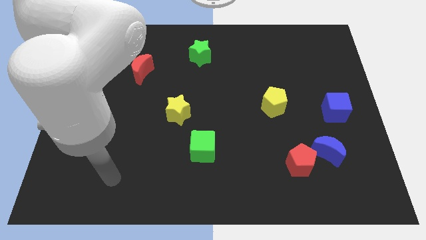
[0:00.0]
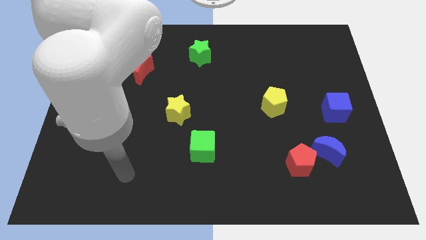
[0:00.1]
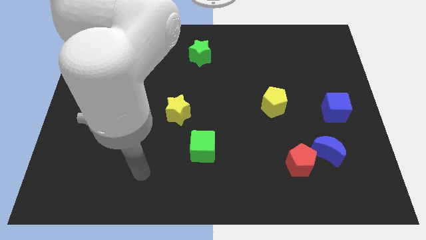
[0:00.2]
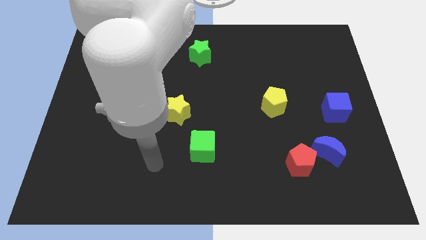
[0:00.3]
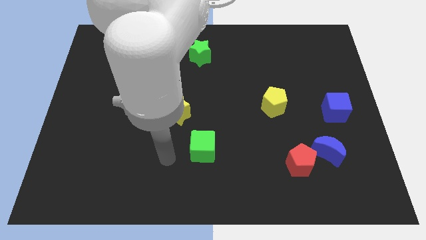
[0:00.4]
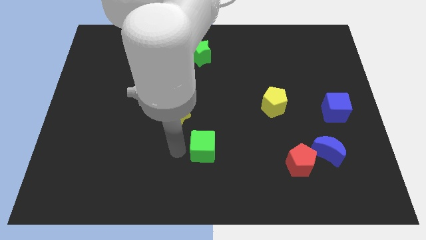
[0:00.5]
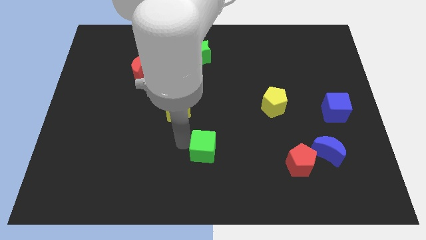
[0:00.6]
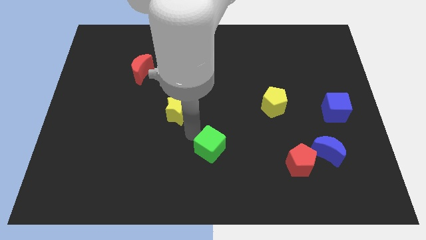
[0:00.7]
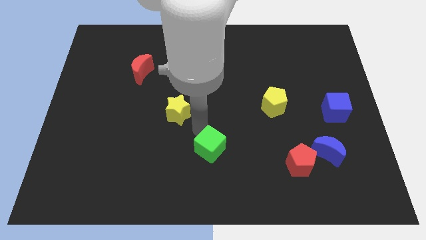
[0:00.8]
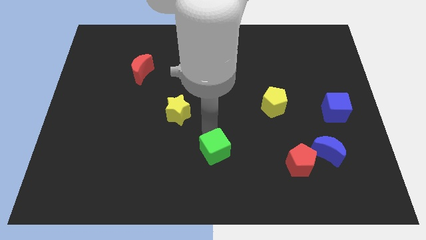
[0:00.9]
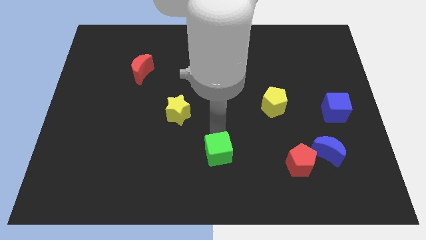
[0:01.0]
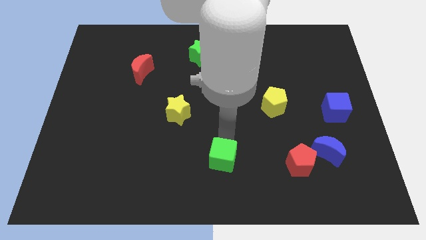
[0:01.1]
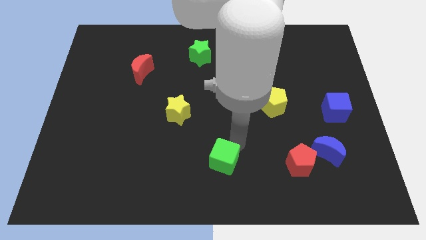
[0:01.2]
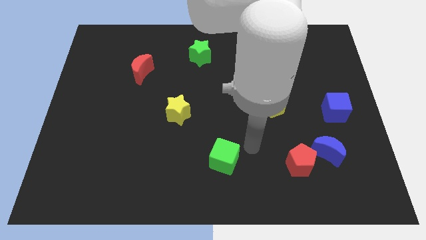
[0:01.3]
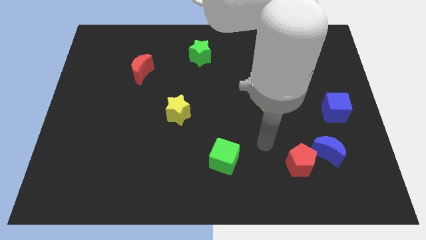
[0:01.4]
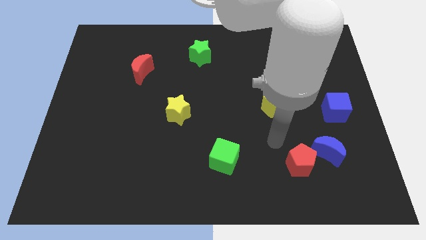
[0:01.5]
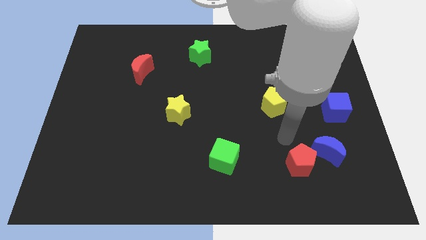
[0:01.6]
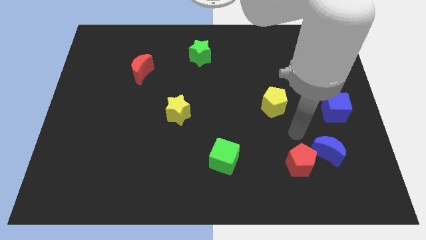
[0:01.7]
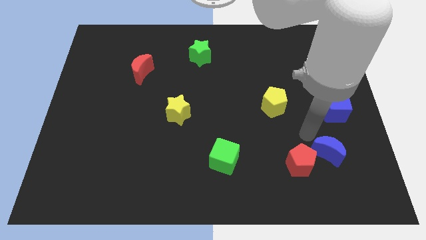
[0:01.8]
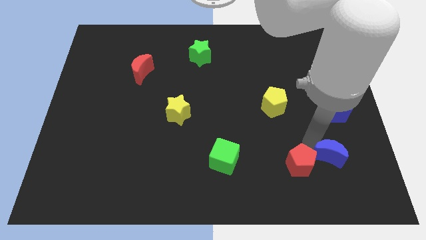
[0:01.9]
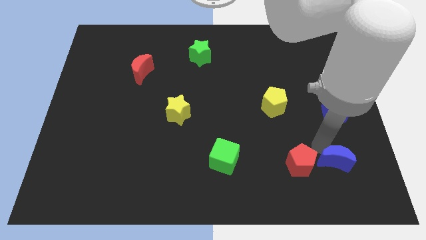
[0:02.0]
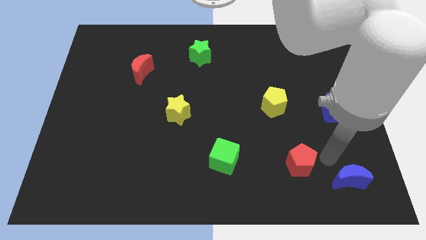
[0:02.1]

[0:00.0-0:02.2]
move the red pentagon away from the blue moon

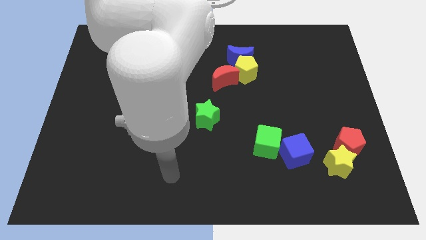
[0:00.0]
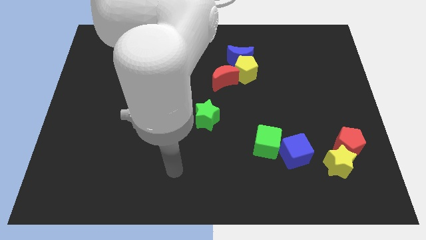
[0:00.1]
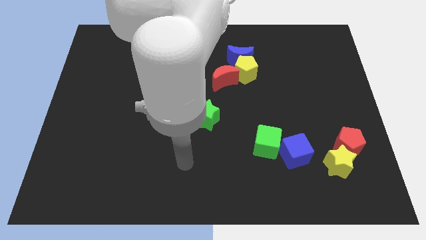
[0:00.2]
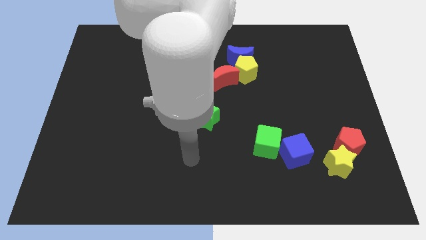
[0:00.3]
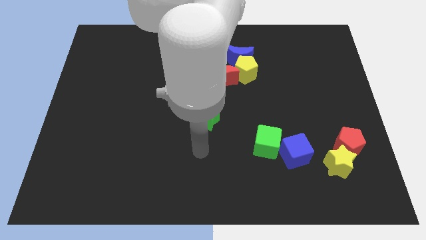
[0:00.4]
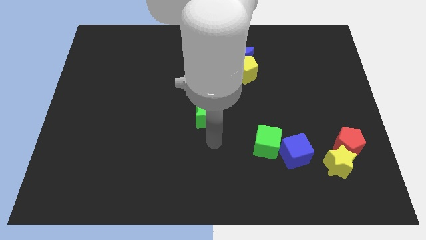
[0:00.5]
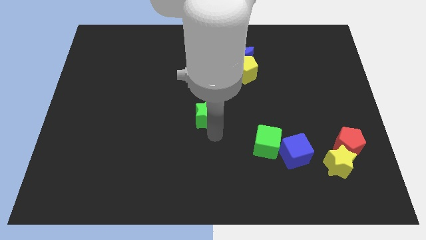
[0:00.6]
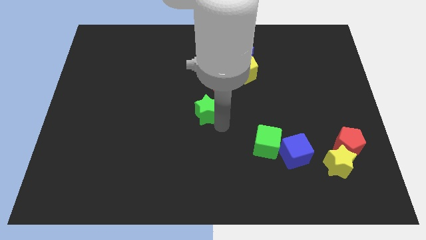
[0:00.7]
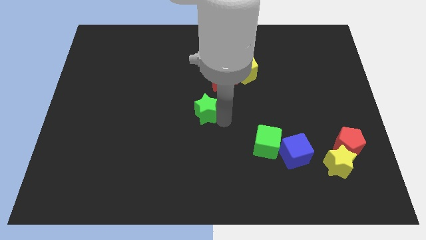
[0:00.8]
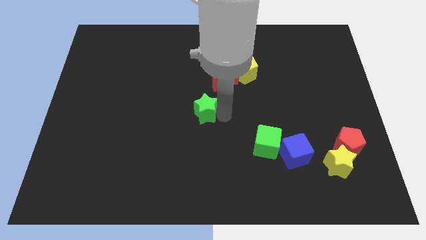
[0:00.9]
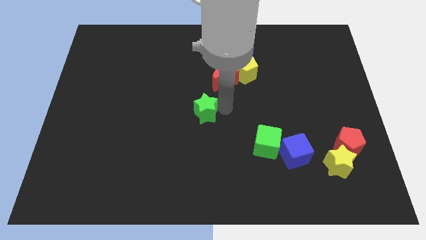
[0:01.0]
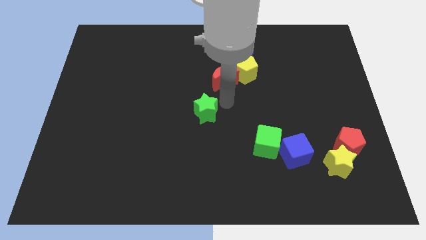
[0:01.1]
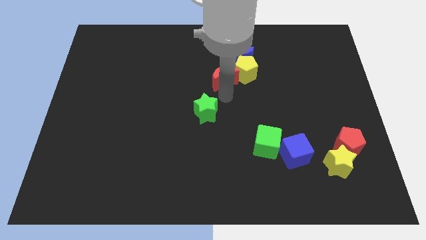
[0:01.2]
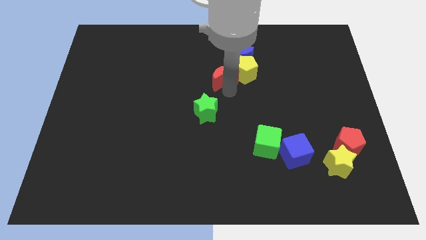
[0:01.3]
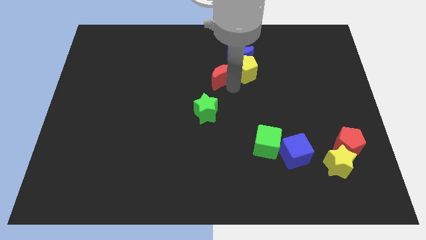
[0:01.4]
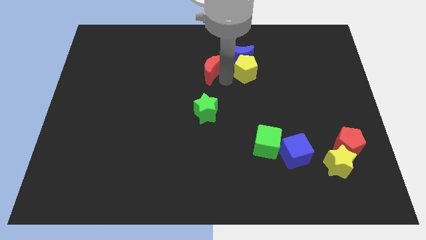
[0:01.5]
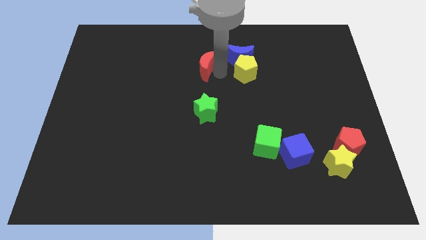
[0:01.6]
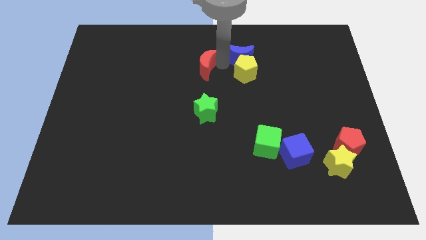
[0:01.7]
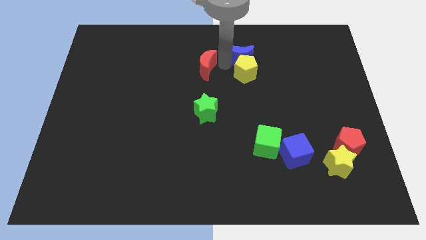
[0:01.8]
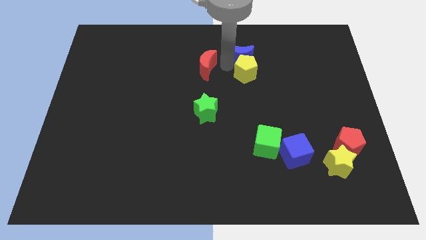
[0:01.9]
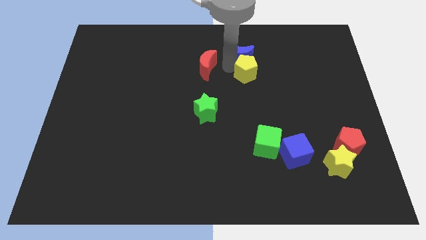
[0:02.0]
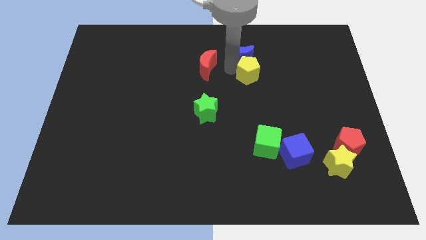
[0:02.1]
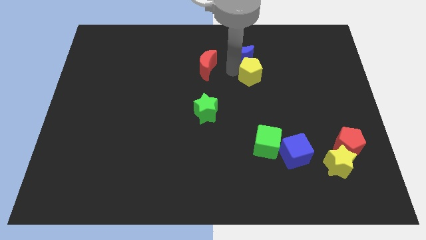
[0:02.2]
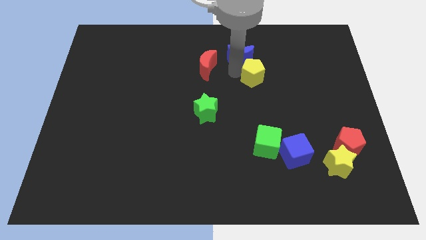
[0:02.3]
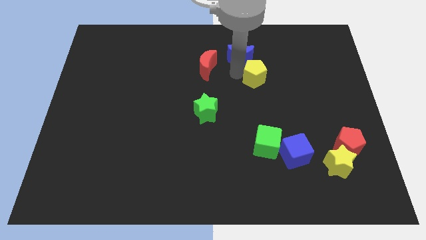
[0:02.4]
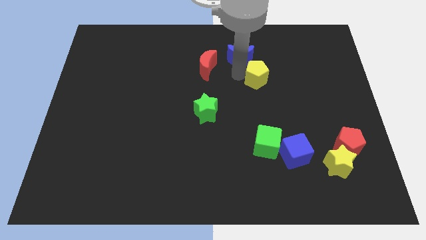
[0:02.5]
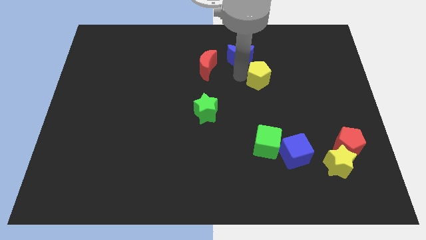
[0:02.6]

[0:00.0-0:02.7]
move the yellow pentagon away from the blue moon and red moon

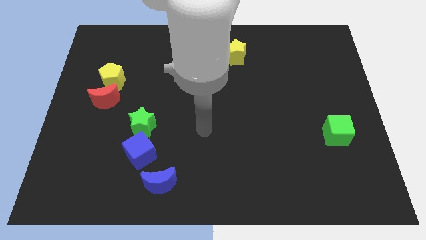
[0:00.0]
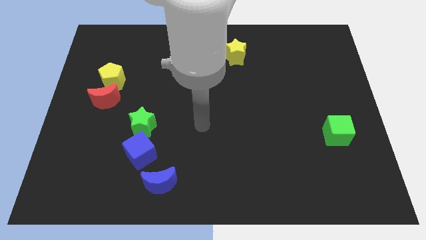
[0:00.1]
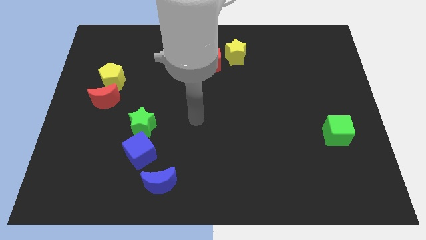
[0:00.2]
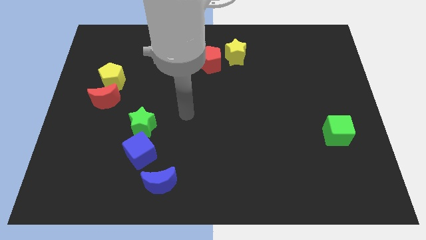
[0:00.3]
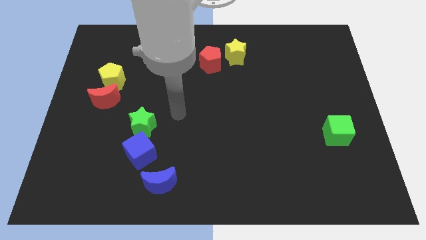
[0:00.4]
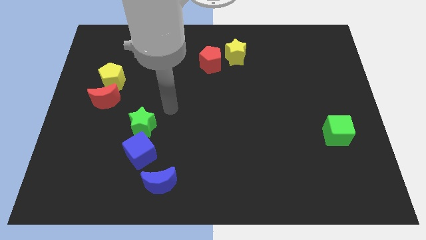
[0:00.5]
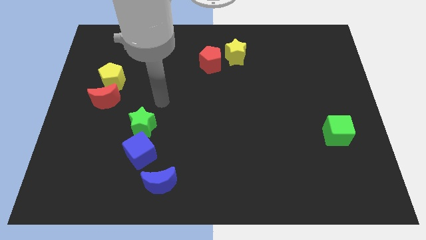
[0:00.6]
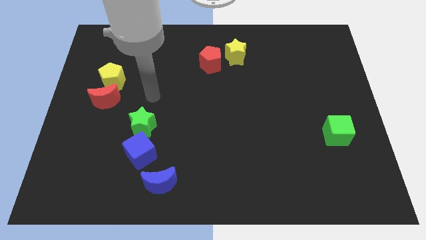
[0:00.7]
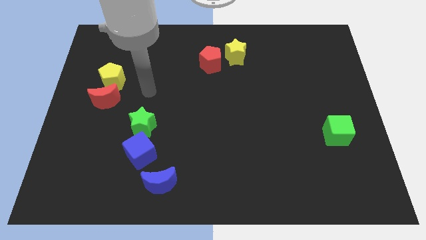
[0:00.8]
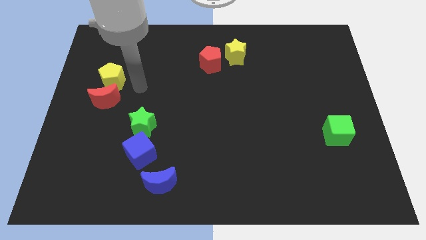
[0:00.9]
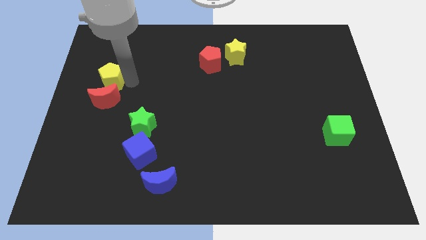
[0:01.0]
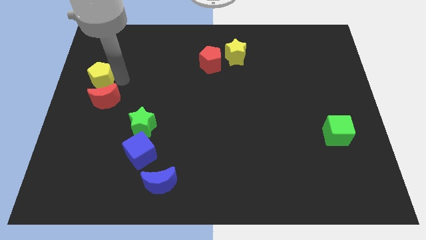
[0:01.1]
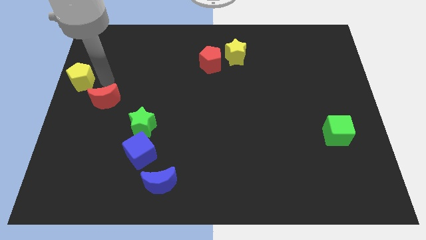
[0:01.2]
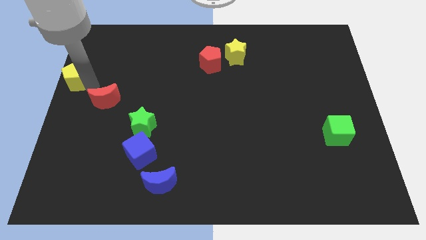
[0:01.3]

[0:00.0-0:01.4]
move the red moon away from the yellow pentagon

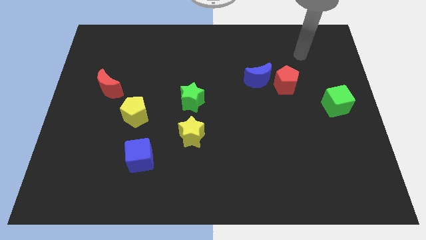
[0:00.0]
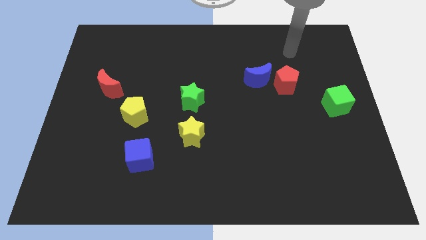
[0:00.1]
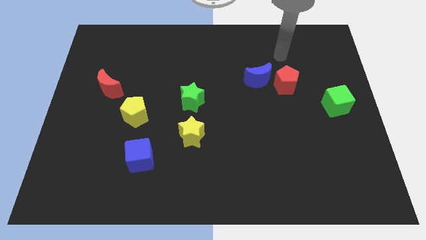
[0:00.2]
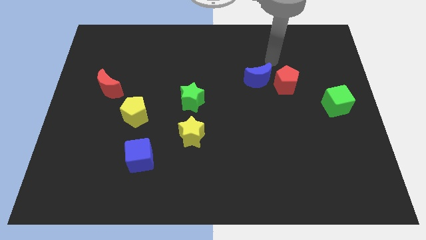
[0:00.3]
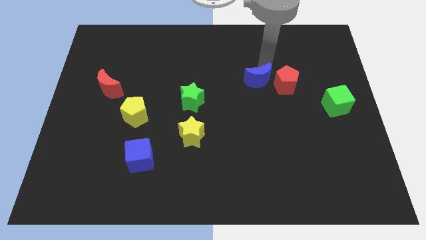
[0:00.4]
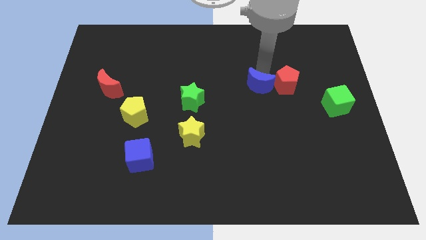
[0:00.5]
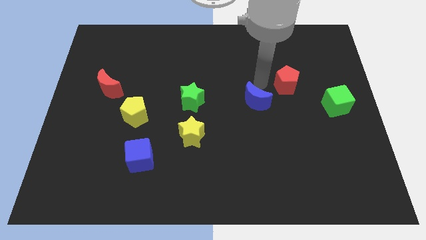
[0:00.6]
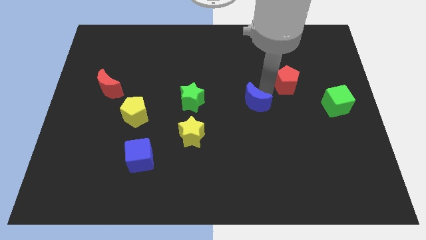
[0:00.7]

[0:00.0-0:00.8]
pull the red pentagon apart from the blue moon

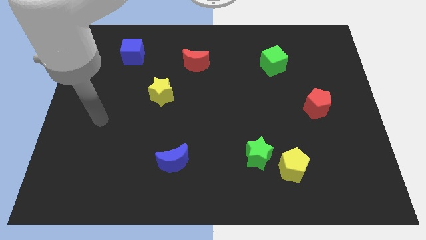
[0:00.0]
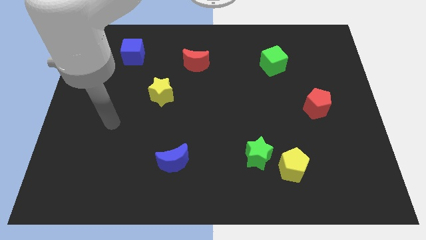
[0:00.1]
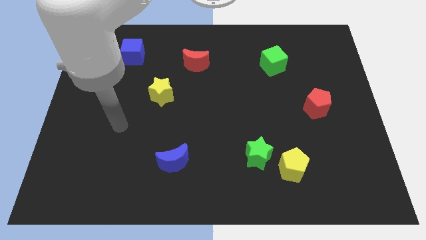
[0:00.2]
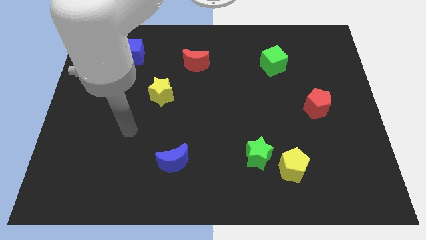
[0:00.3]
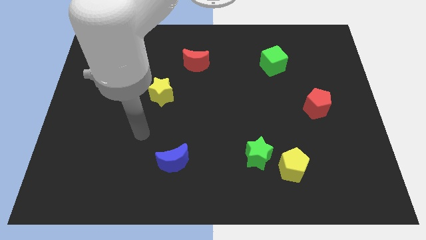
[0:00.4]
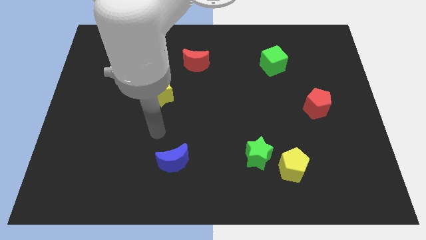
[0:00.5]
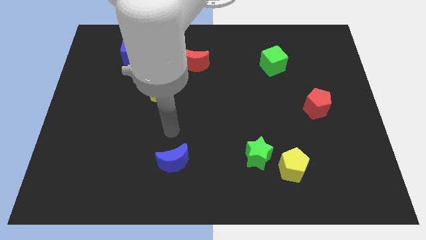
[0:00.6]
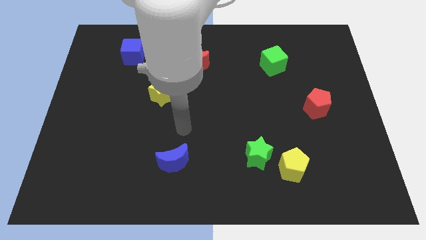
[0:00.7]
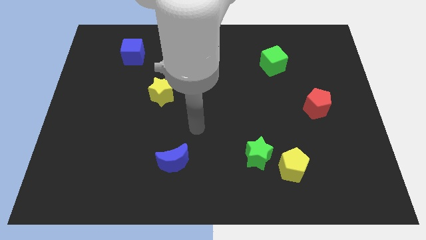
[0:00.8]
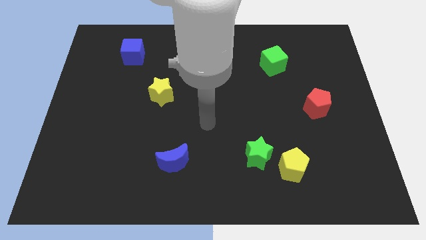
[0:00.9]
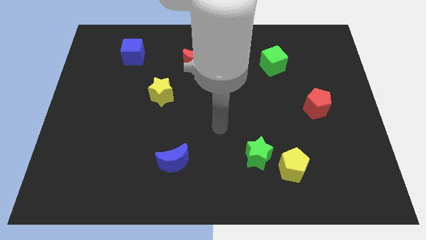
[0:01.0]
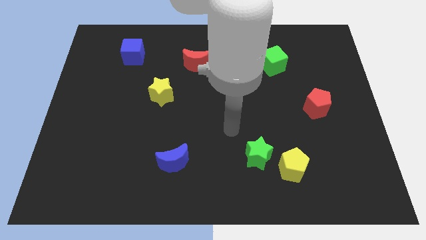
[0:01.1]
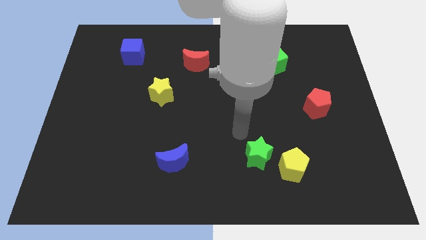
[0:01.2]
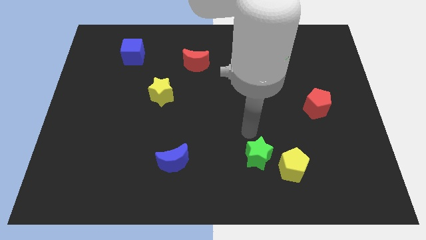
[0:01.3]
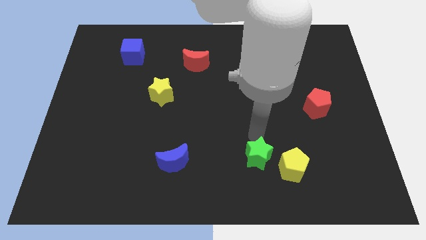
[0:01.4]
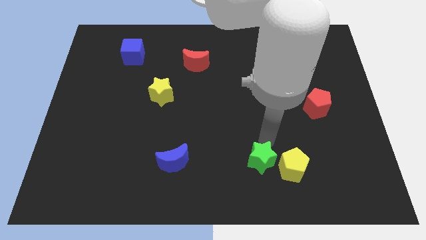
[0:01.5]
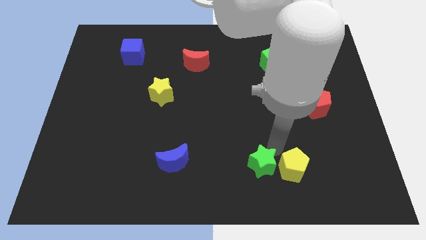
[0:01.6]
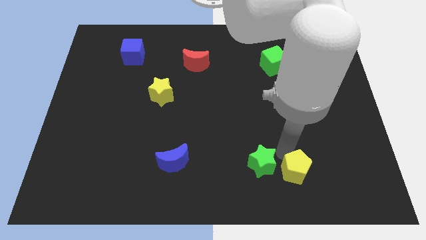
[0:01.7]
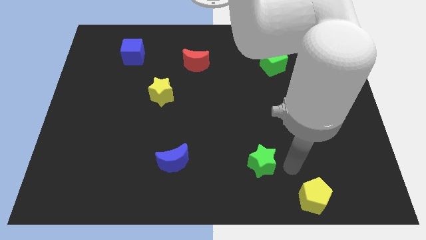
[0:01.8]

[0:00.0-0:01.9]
separate the green star from the yellow pentagon

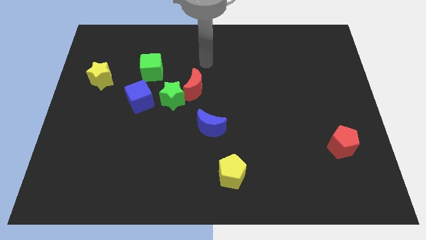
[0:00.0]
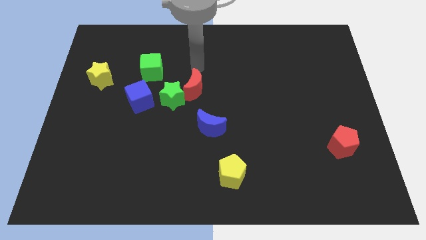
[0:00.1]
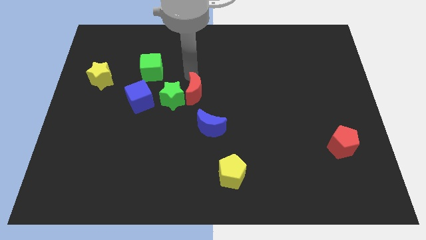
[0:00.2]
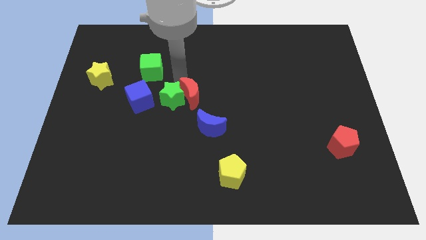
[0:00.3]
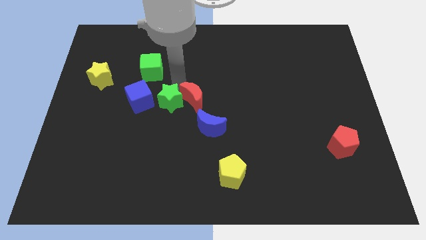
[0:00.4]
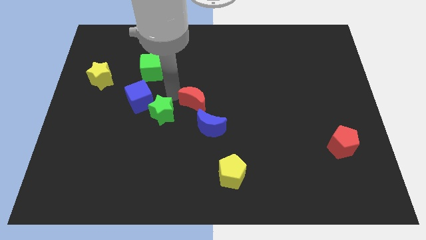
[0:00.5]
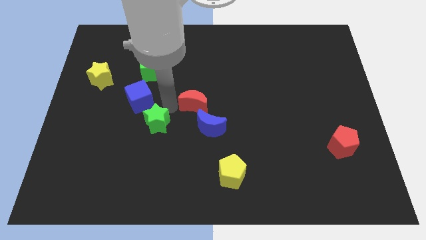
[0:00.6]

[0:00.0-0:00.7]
separate the red moon from the green star
